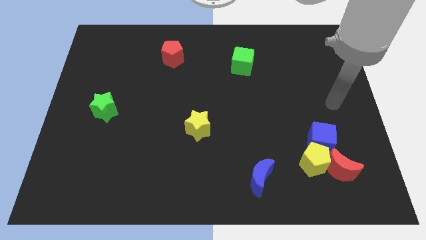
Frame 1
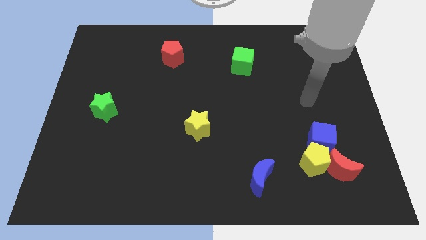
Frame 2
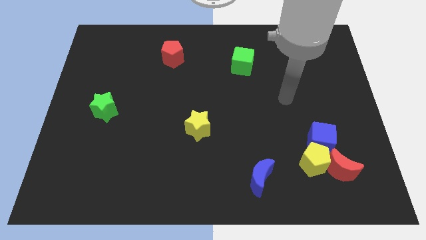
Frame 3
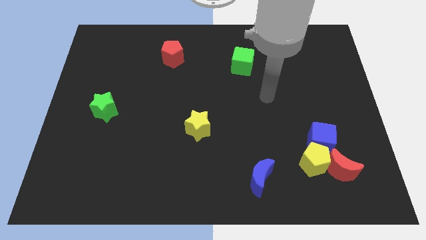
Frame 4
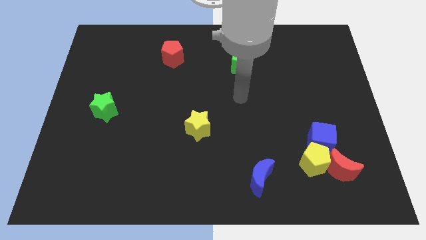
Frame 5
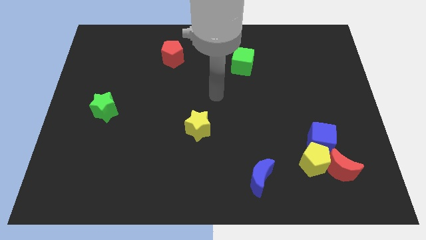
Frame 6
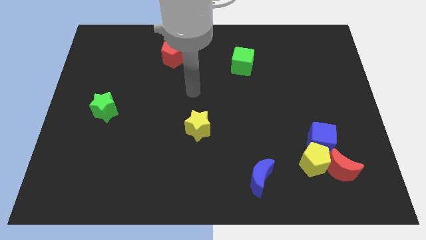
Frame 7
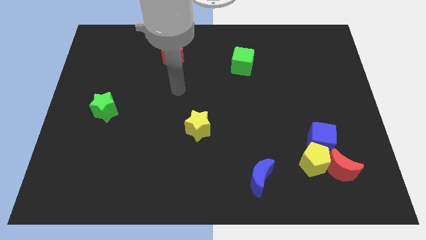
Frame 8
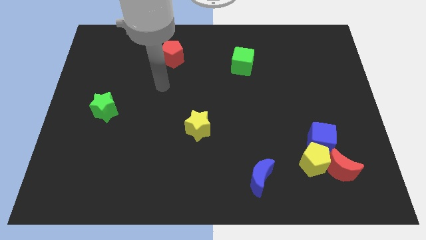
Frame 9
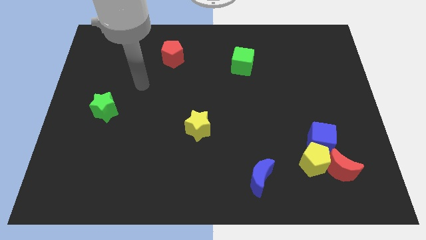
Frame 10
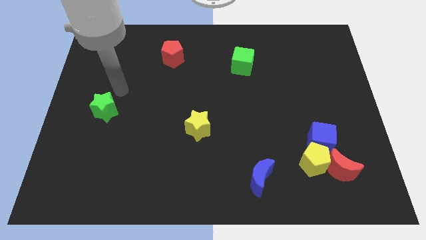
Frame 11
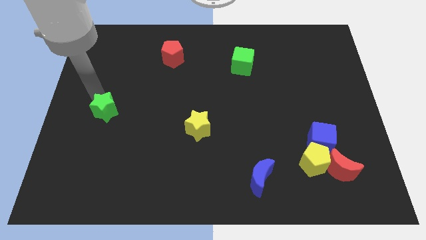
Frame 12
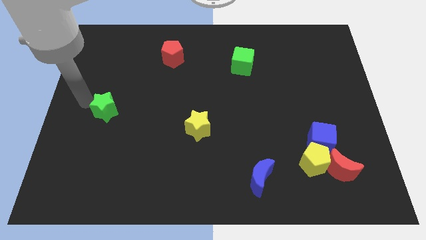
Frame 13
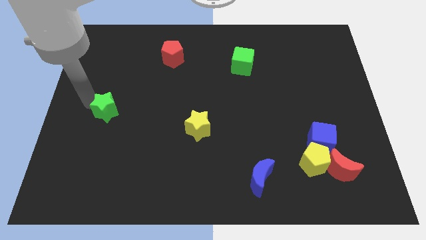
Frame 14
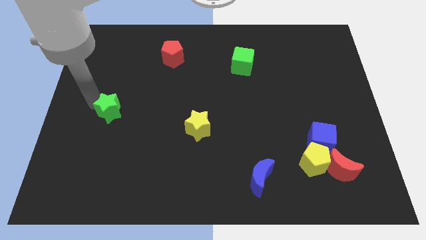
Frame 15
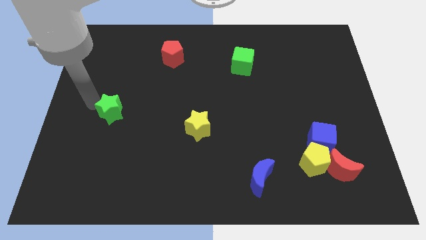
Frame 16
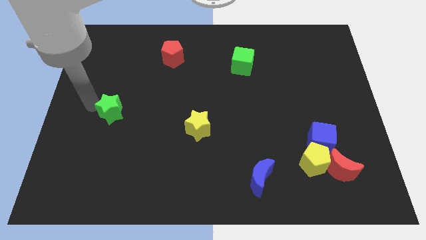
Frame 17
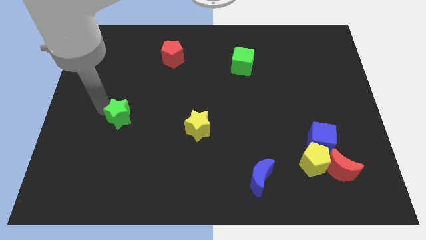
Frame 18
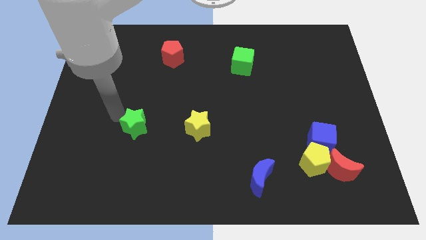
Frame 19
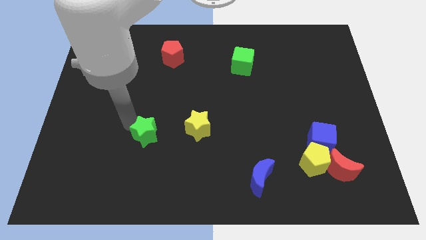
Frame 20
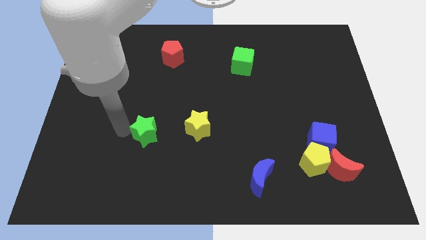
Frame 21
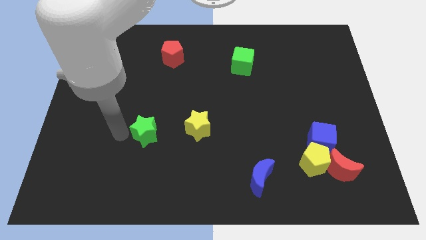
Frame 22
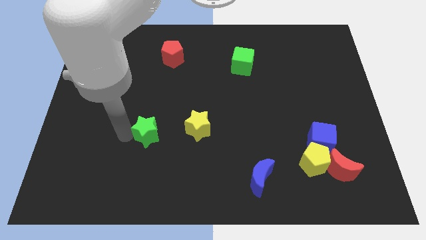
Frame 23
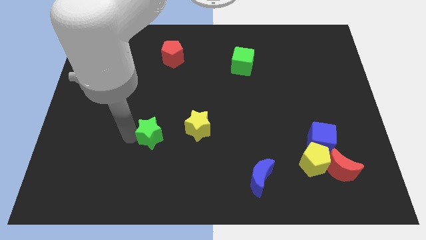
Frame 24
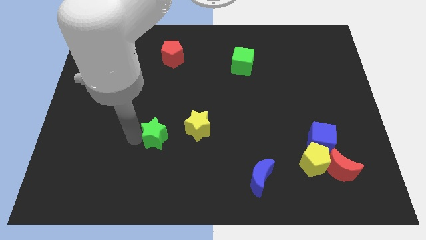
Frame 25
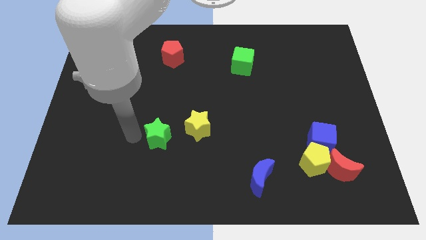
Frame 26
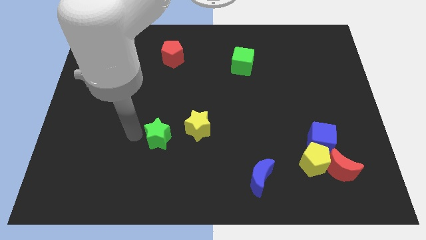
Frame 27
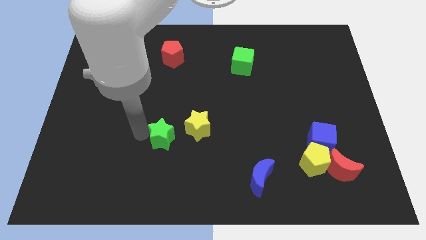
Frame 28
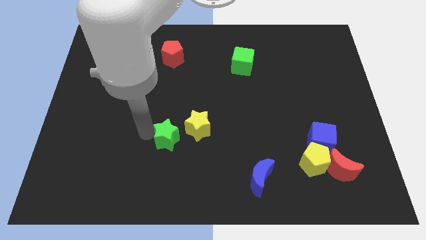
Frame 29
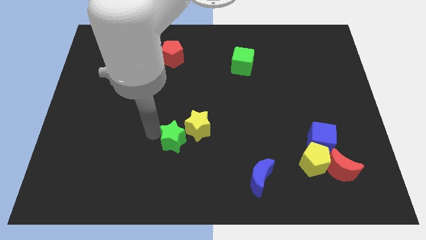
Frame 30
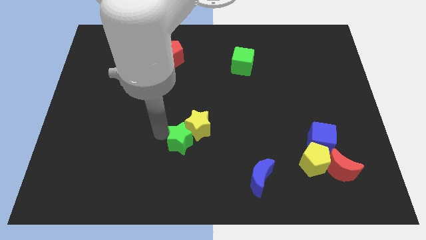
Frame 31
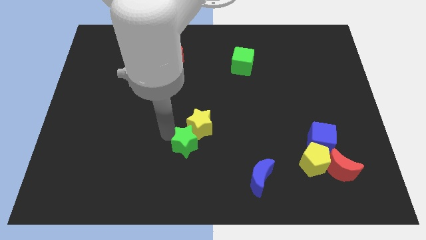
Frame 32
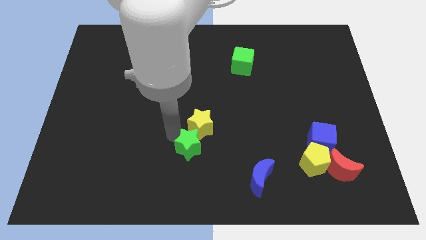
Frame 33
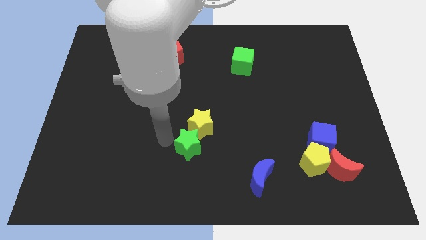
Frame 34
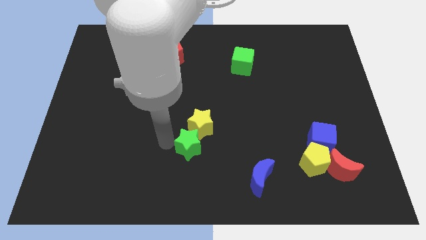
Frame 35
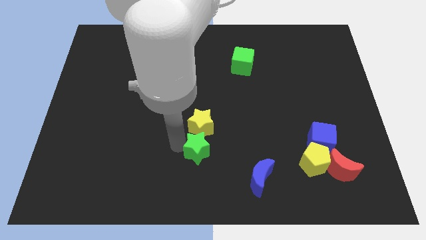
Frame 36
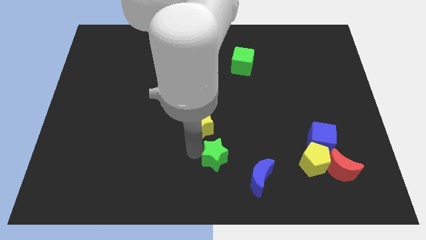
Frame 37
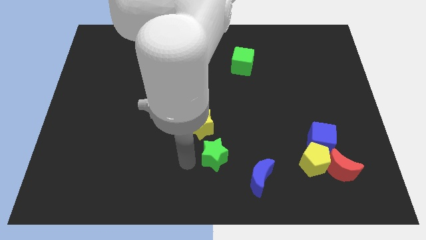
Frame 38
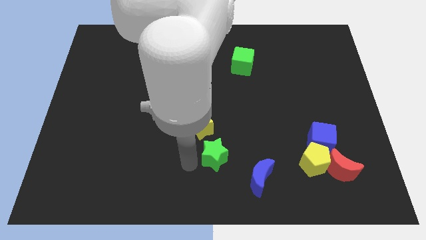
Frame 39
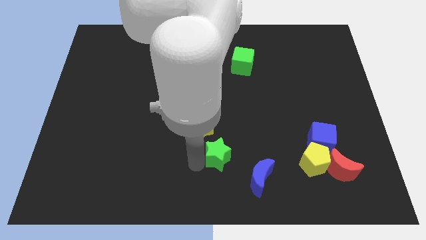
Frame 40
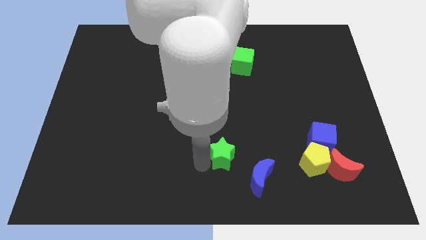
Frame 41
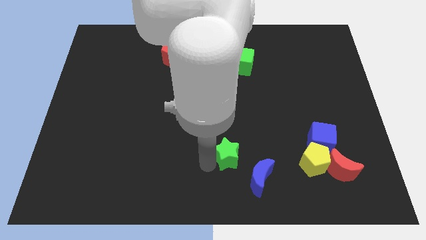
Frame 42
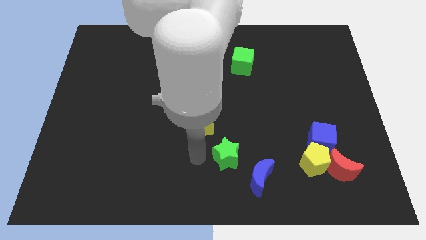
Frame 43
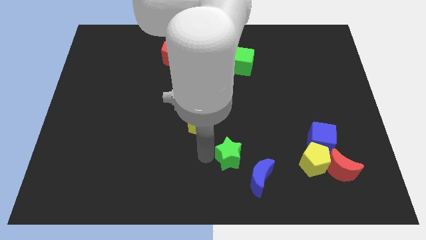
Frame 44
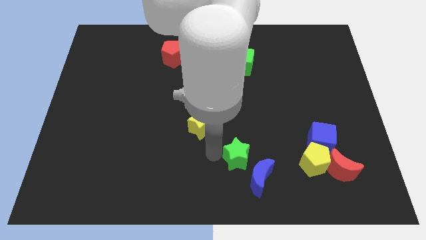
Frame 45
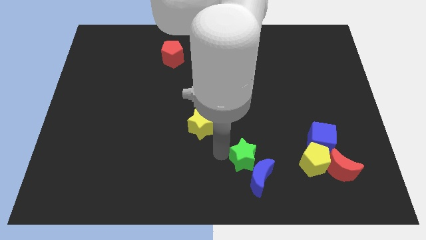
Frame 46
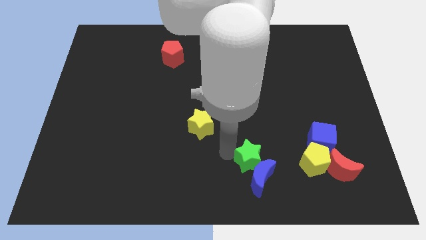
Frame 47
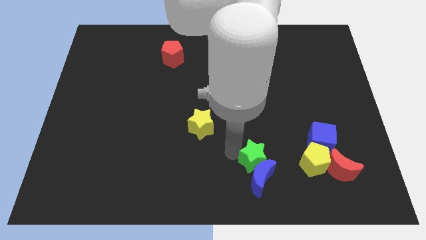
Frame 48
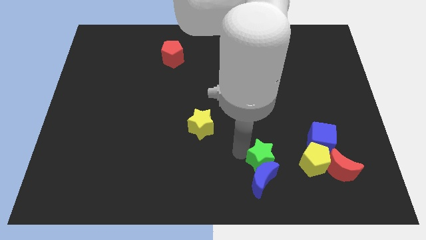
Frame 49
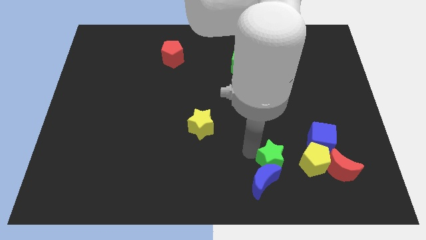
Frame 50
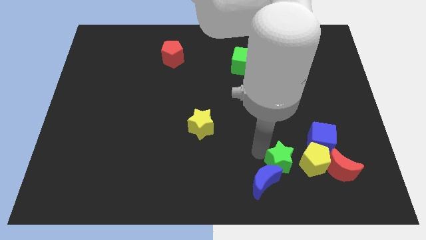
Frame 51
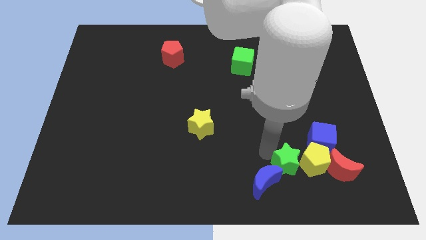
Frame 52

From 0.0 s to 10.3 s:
push the green star close to the yellow pentagon

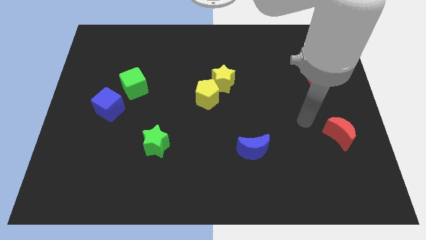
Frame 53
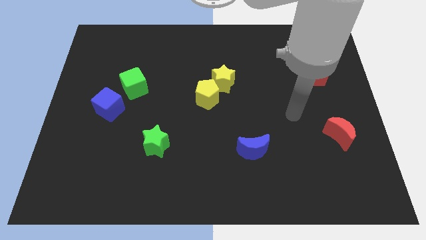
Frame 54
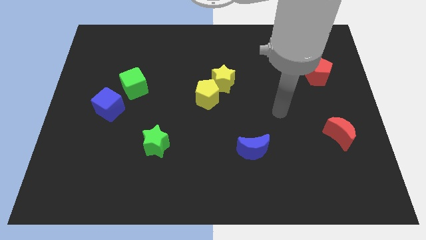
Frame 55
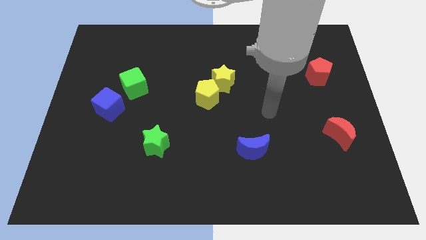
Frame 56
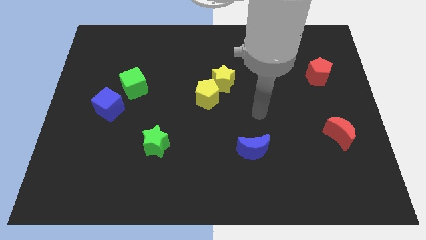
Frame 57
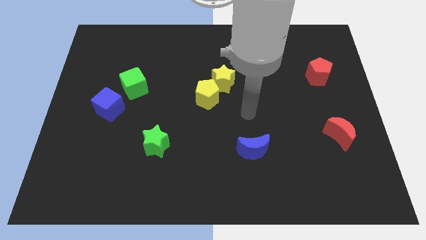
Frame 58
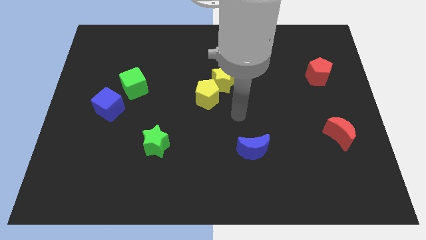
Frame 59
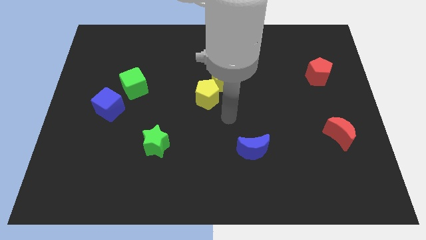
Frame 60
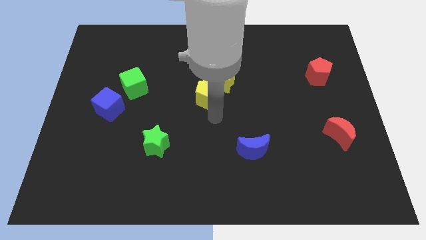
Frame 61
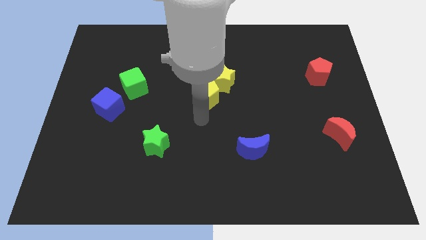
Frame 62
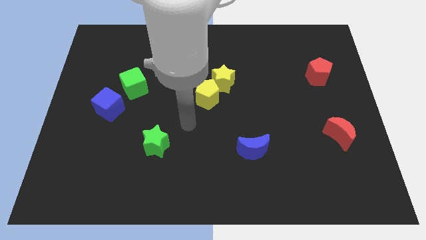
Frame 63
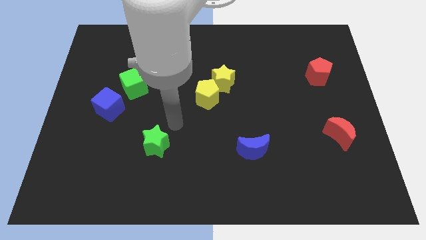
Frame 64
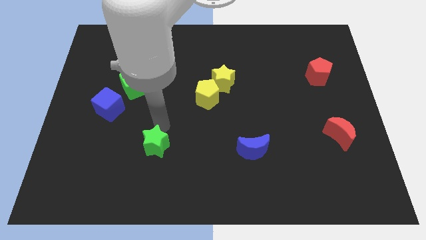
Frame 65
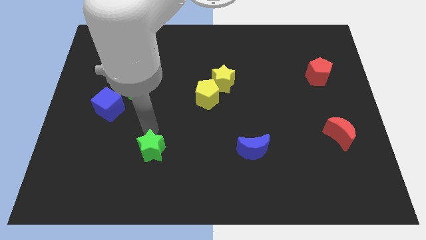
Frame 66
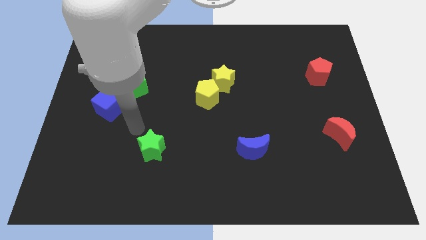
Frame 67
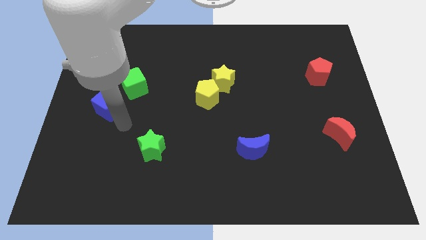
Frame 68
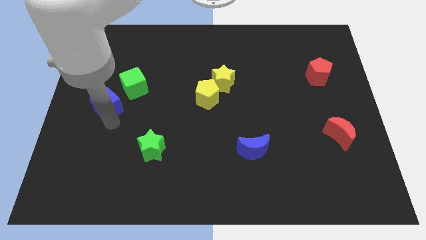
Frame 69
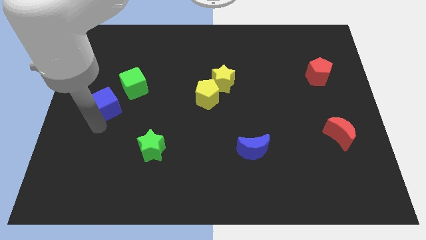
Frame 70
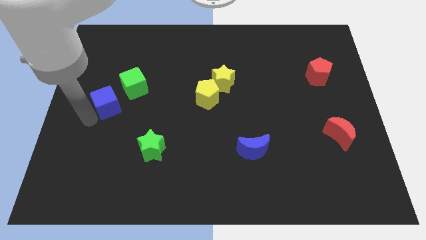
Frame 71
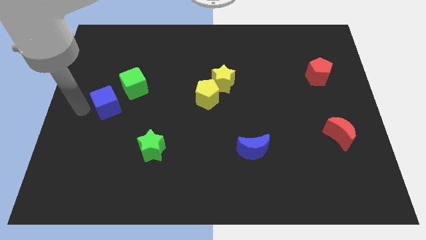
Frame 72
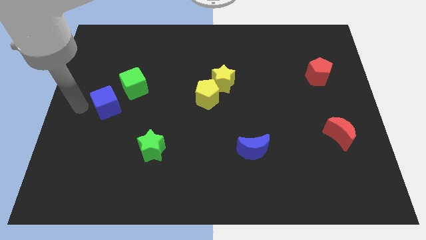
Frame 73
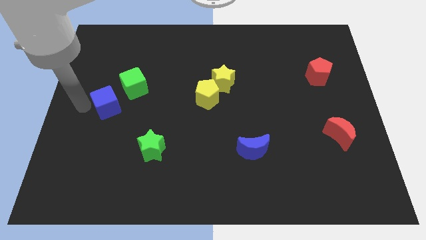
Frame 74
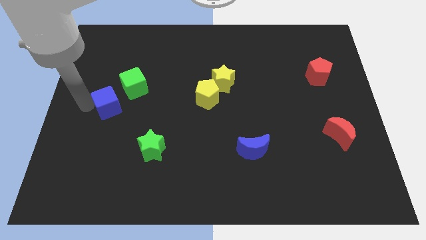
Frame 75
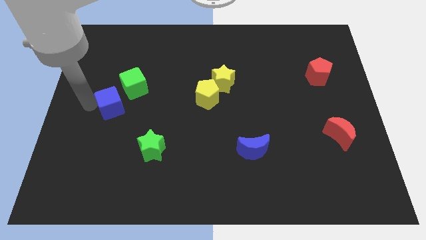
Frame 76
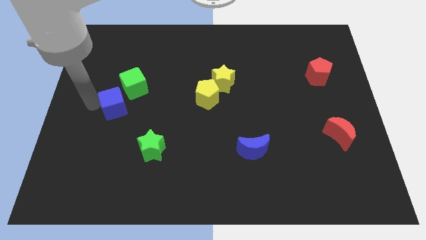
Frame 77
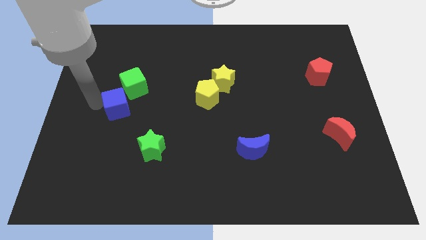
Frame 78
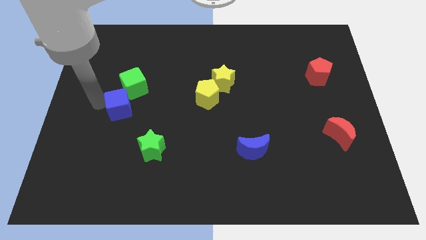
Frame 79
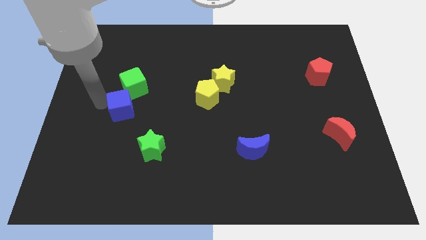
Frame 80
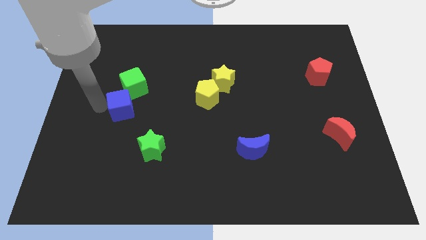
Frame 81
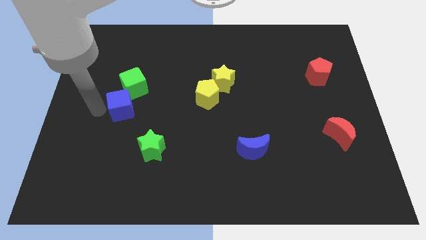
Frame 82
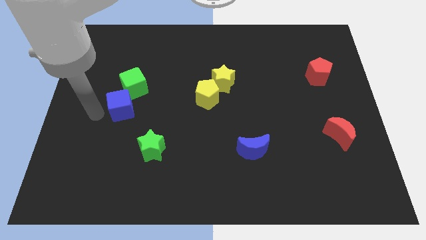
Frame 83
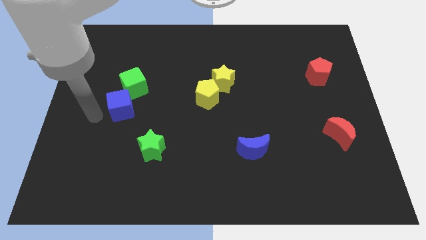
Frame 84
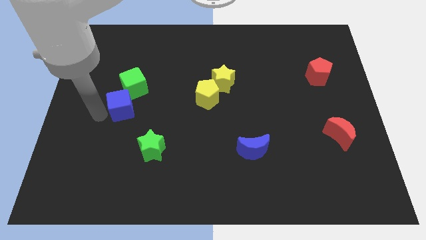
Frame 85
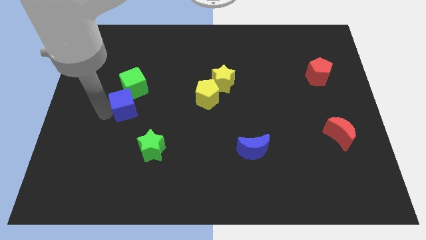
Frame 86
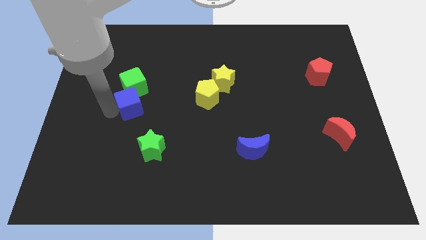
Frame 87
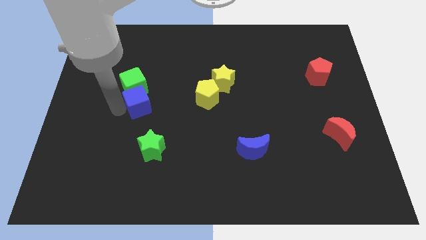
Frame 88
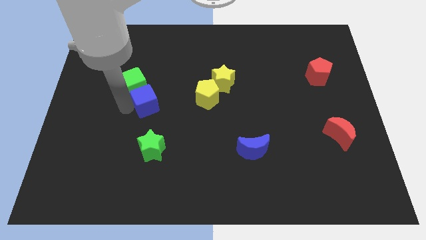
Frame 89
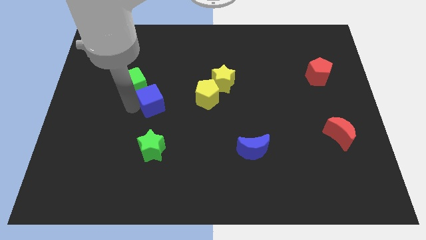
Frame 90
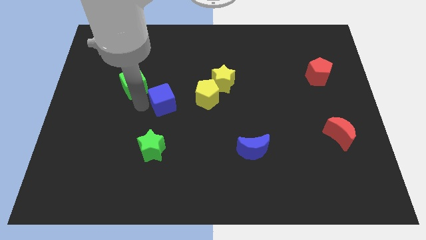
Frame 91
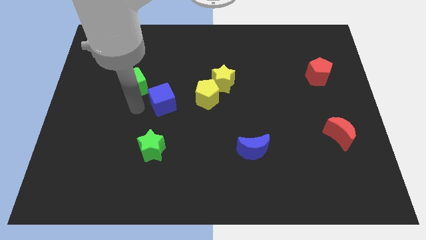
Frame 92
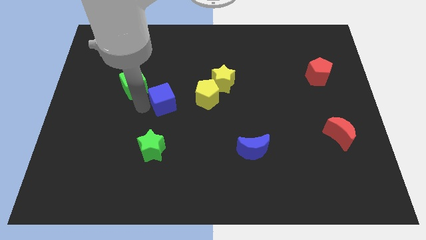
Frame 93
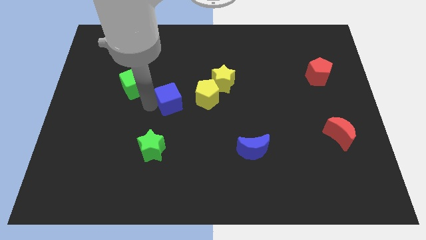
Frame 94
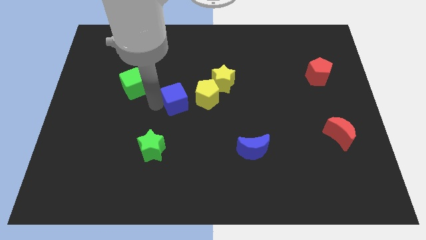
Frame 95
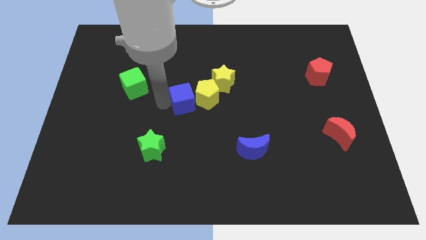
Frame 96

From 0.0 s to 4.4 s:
put the blue cube to the yellow pentagon
